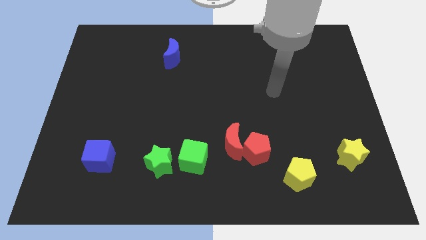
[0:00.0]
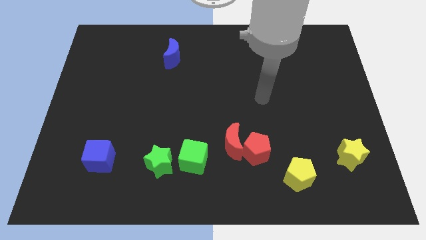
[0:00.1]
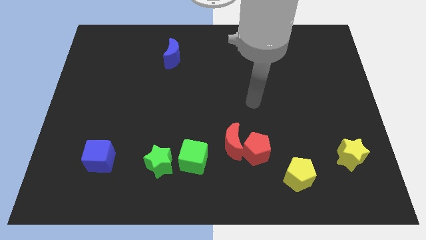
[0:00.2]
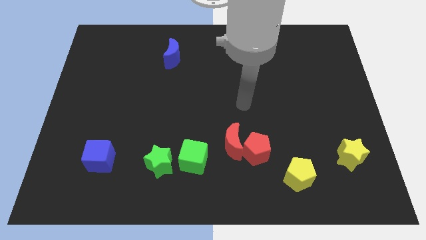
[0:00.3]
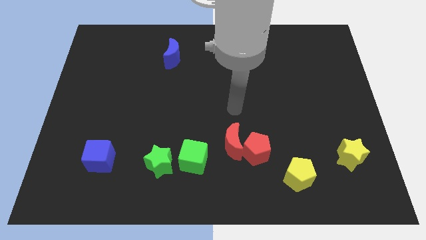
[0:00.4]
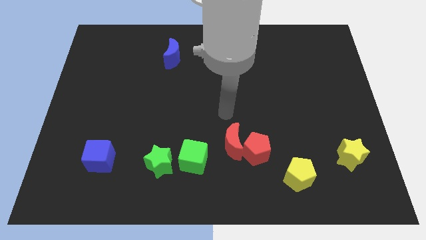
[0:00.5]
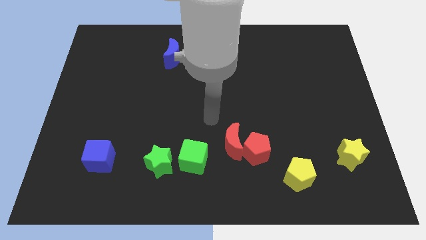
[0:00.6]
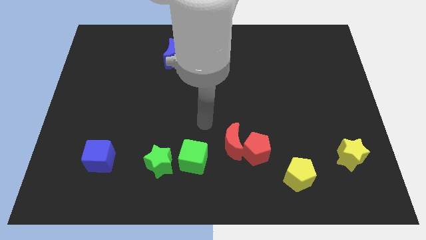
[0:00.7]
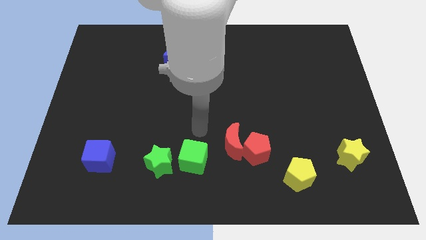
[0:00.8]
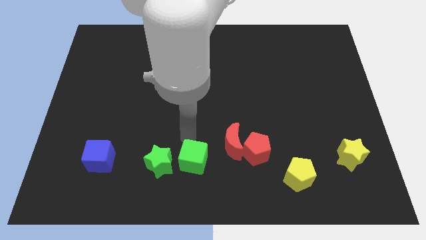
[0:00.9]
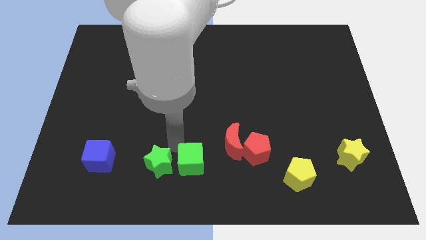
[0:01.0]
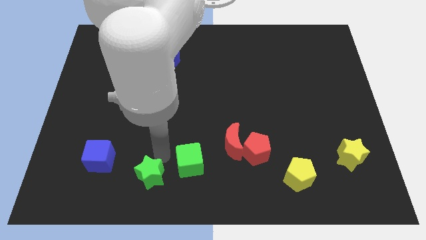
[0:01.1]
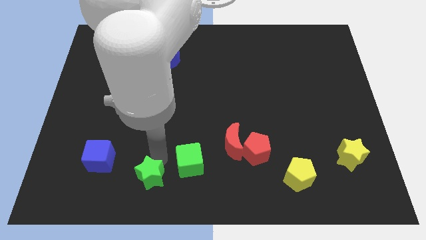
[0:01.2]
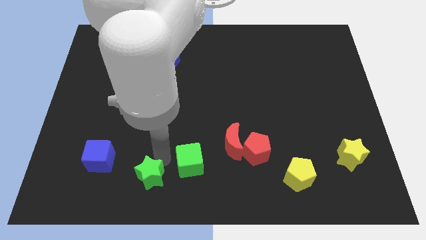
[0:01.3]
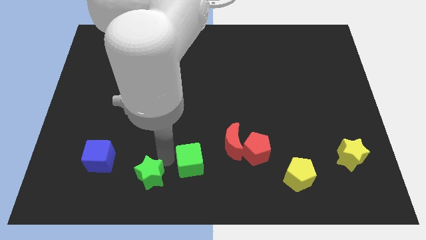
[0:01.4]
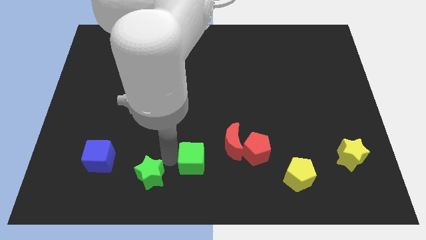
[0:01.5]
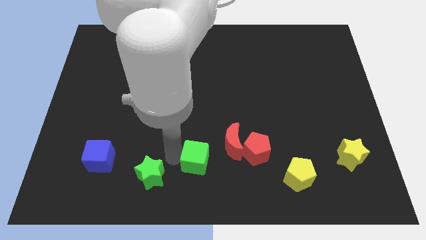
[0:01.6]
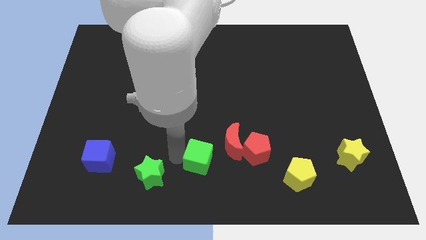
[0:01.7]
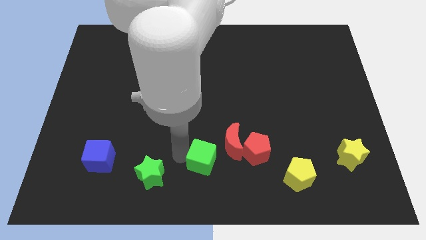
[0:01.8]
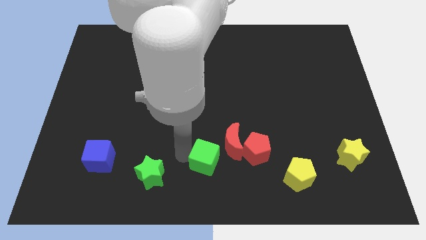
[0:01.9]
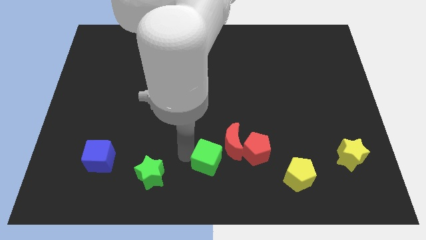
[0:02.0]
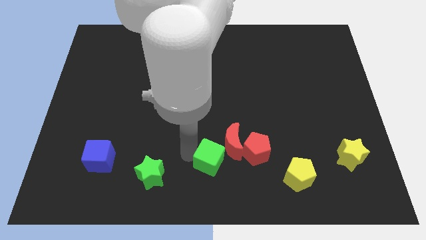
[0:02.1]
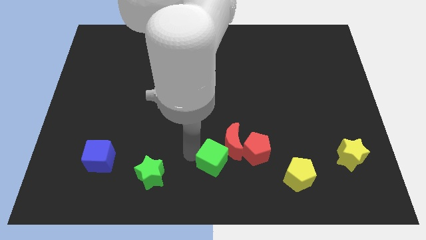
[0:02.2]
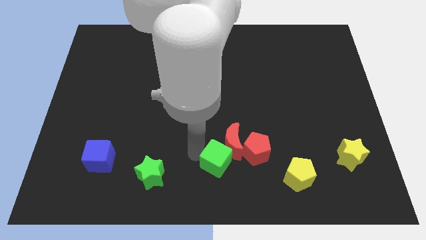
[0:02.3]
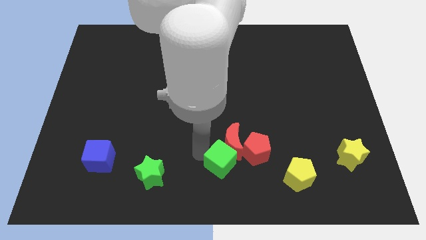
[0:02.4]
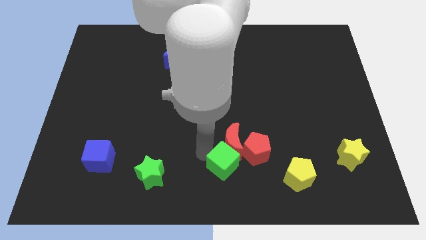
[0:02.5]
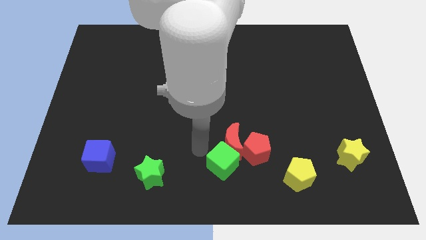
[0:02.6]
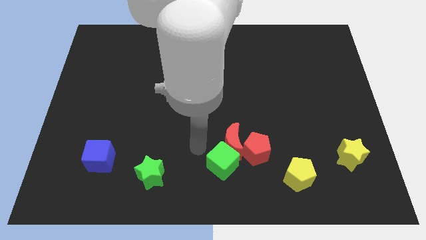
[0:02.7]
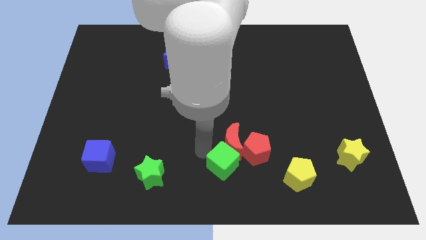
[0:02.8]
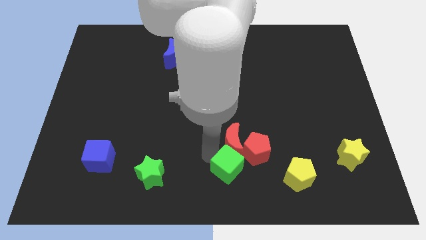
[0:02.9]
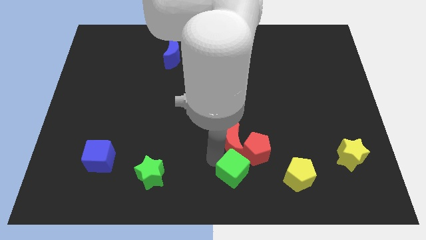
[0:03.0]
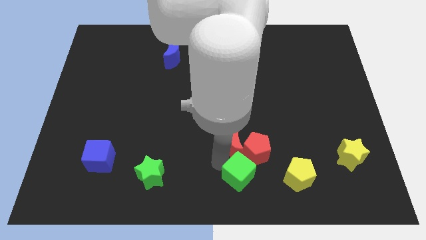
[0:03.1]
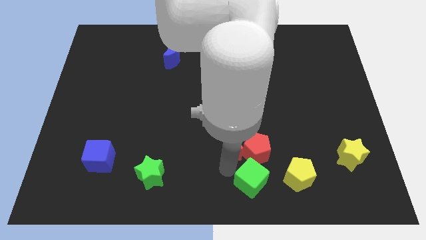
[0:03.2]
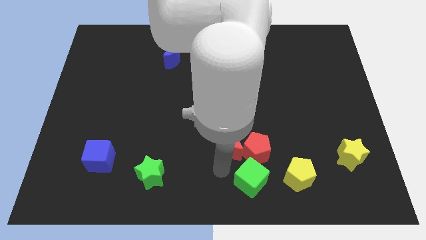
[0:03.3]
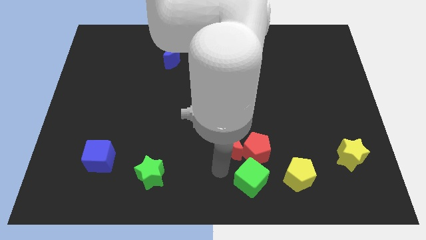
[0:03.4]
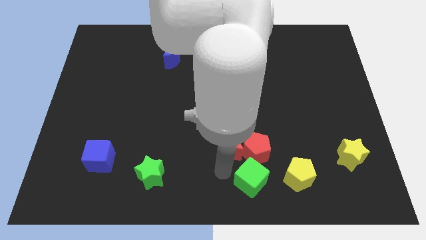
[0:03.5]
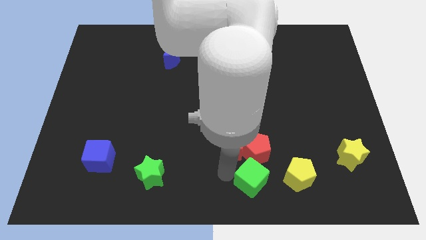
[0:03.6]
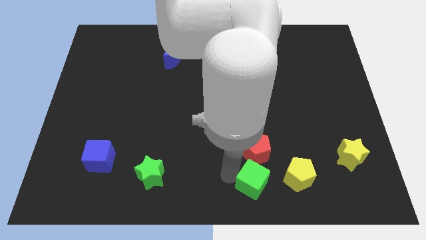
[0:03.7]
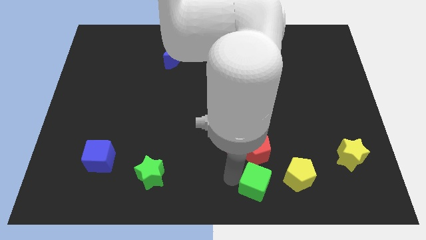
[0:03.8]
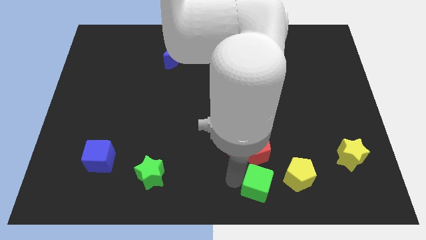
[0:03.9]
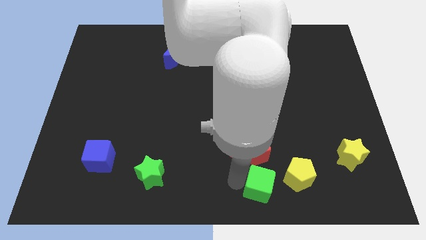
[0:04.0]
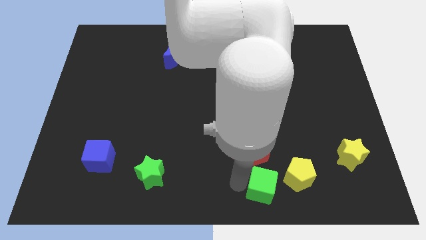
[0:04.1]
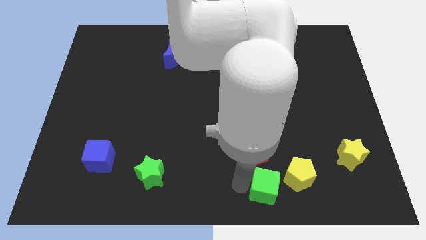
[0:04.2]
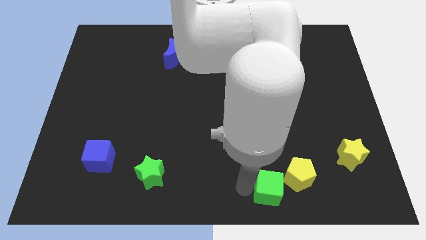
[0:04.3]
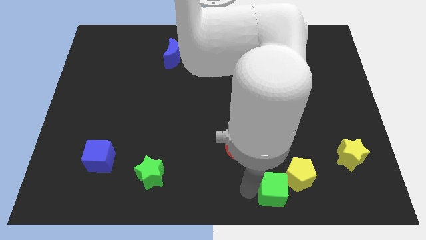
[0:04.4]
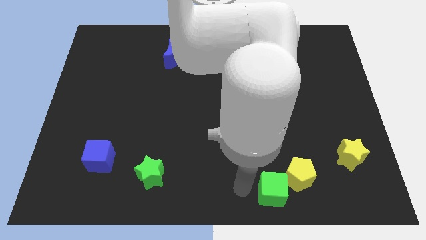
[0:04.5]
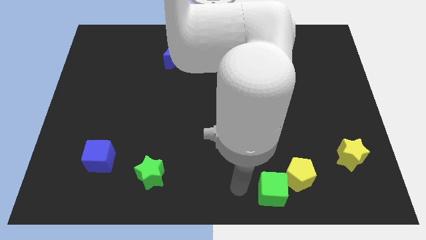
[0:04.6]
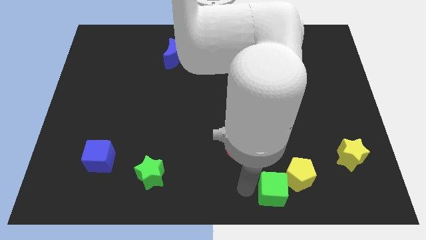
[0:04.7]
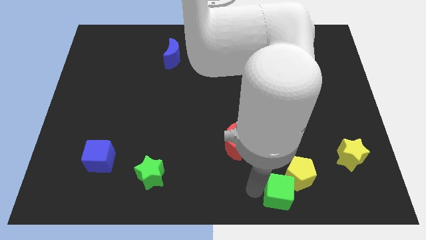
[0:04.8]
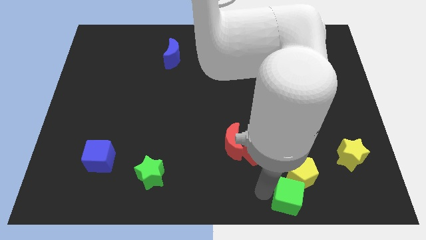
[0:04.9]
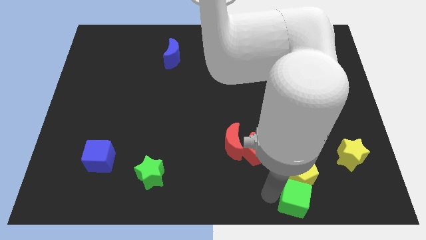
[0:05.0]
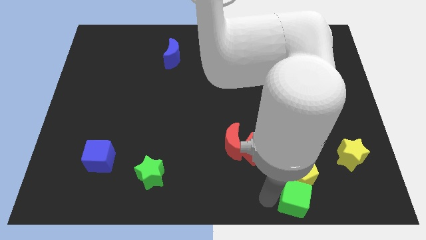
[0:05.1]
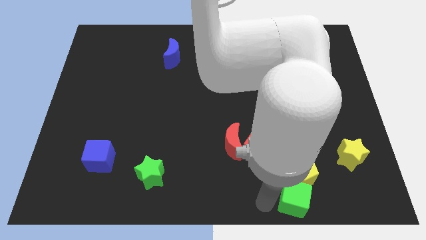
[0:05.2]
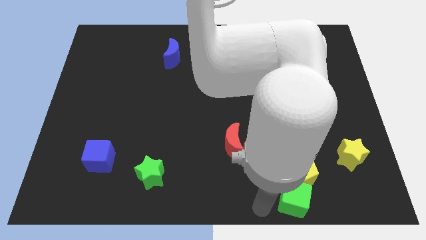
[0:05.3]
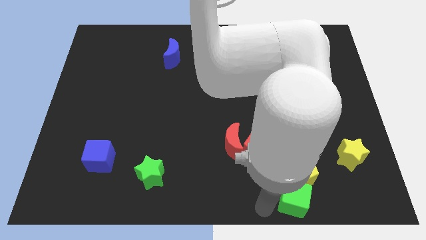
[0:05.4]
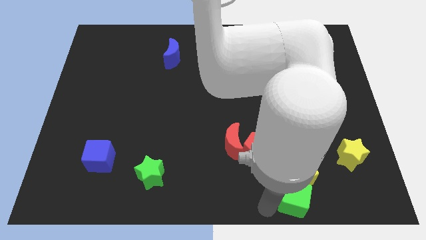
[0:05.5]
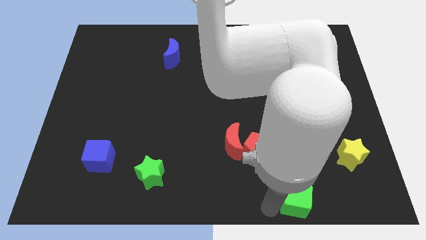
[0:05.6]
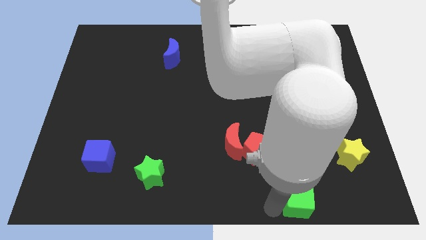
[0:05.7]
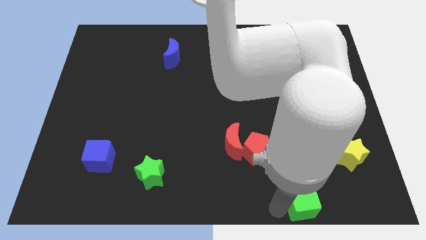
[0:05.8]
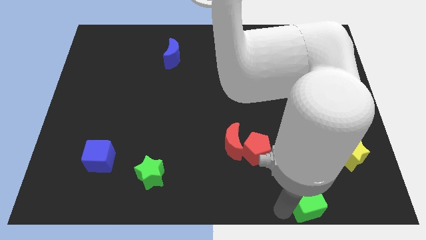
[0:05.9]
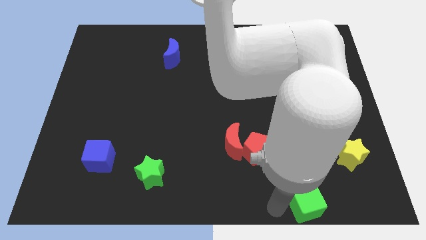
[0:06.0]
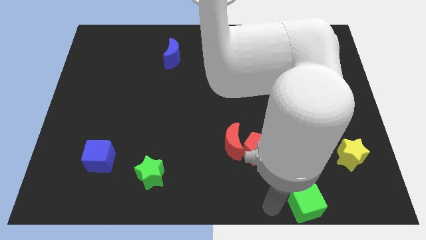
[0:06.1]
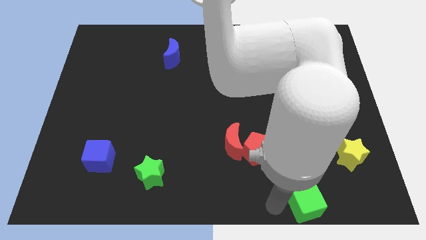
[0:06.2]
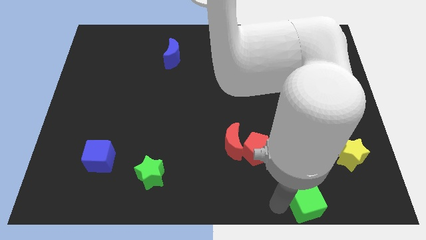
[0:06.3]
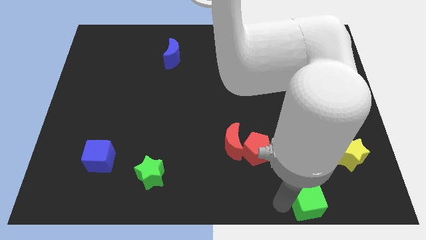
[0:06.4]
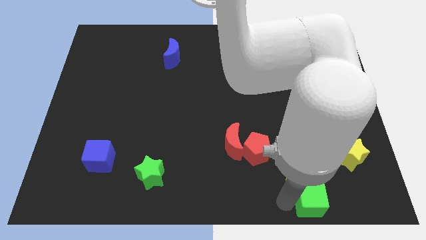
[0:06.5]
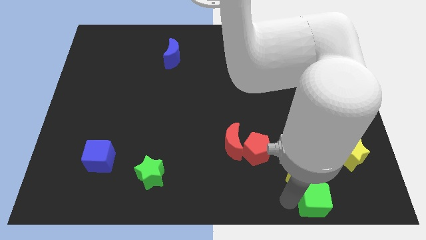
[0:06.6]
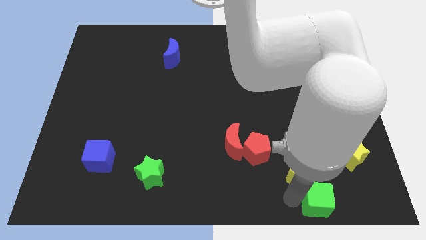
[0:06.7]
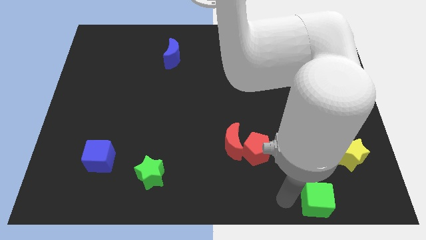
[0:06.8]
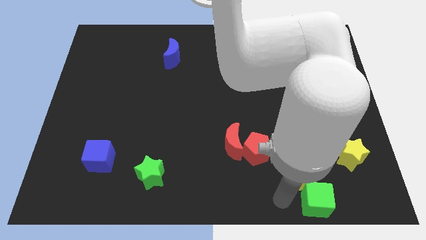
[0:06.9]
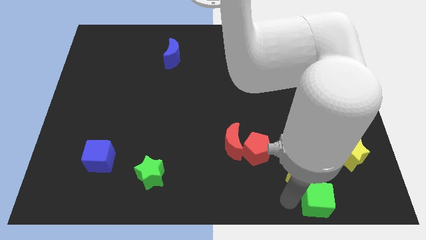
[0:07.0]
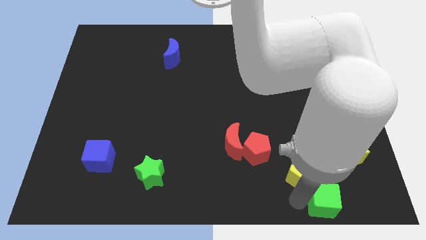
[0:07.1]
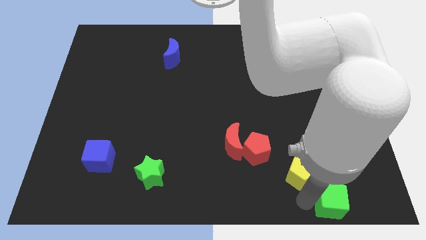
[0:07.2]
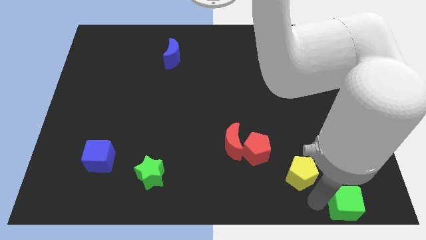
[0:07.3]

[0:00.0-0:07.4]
push the green cube to the lower right corner
